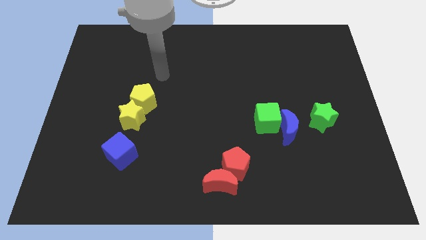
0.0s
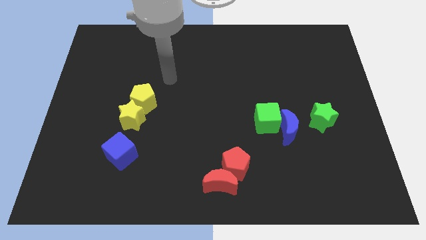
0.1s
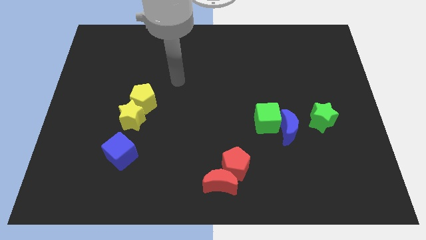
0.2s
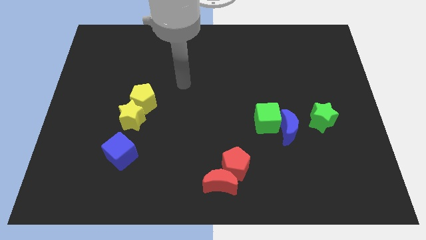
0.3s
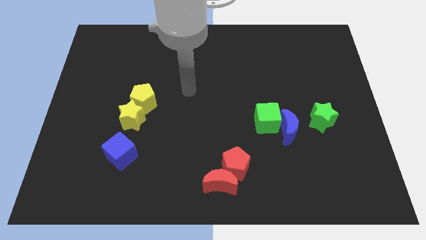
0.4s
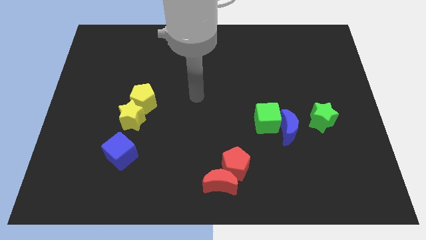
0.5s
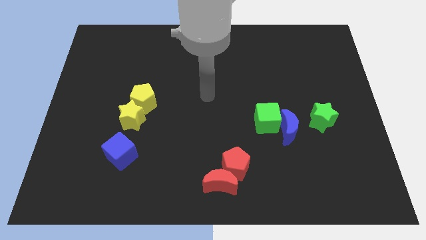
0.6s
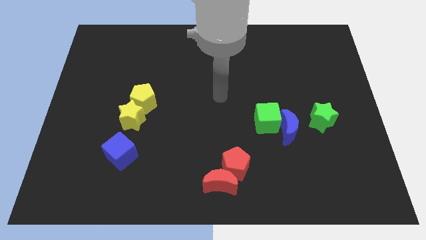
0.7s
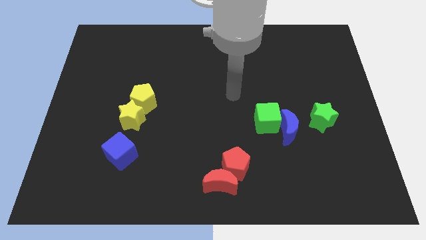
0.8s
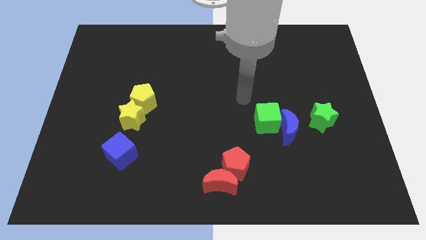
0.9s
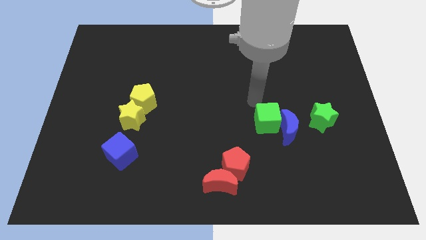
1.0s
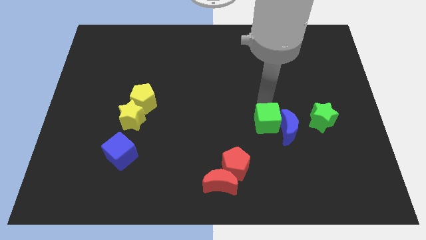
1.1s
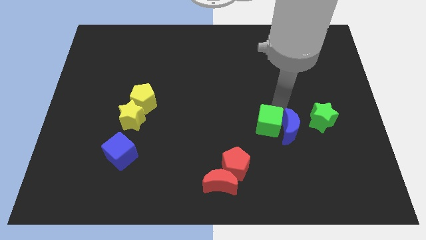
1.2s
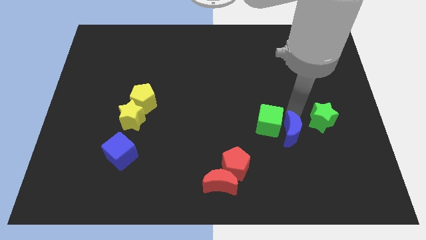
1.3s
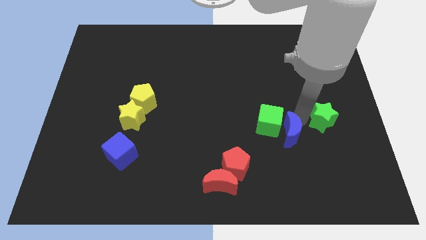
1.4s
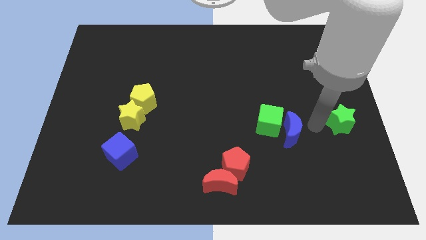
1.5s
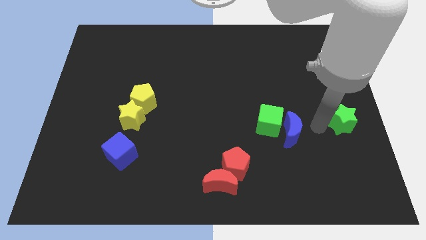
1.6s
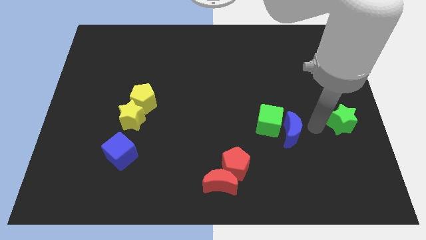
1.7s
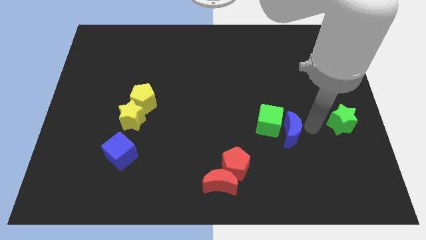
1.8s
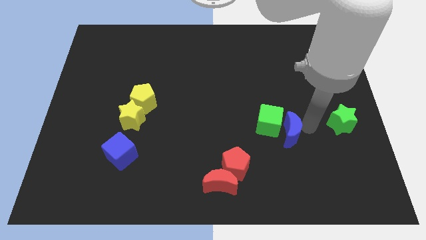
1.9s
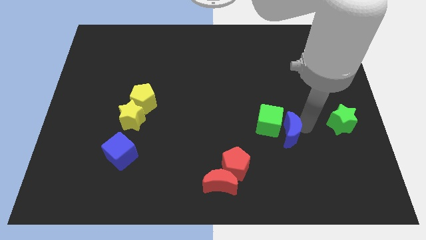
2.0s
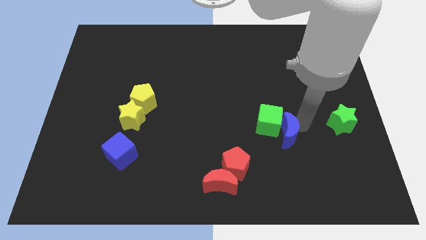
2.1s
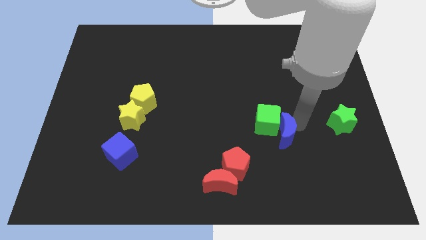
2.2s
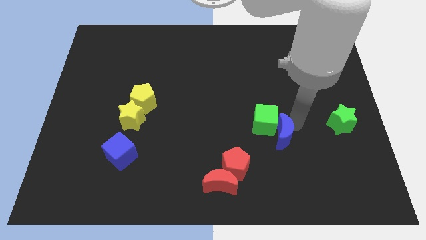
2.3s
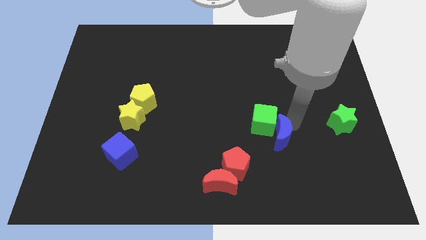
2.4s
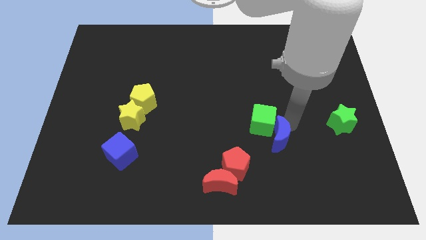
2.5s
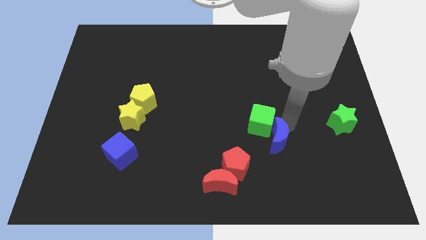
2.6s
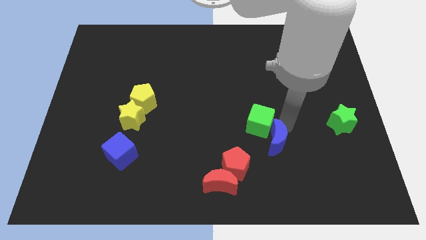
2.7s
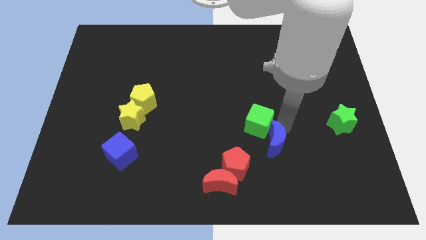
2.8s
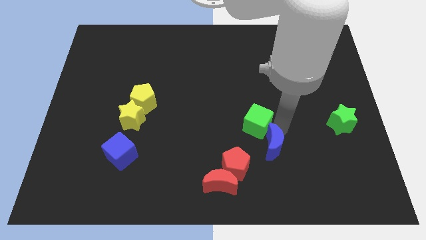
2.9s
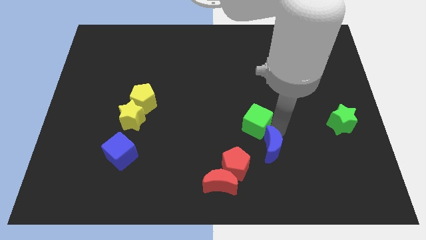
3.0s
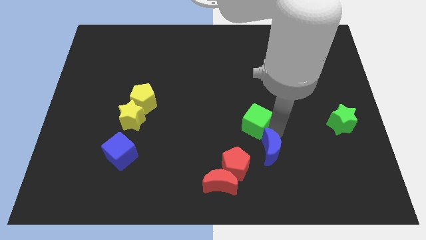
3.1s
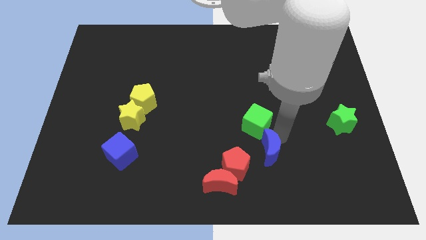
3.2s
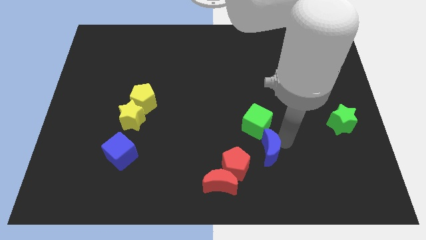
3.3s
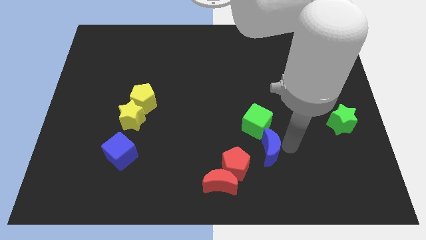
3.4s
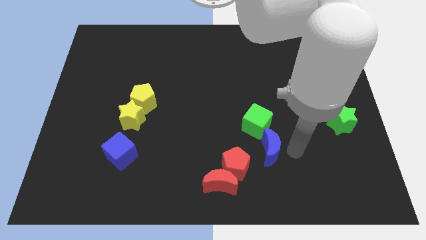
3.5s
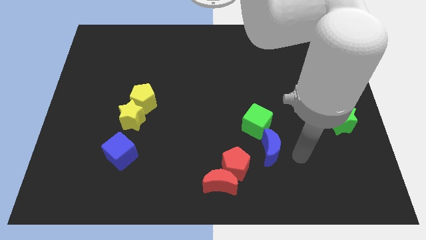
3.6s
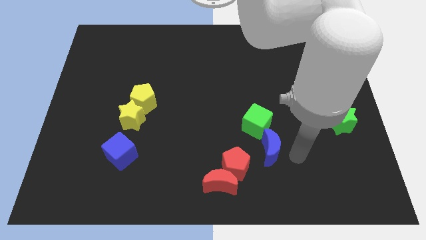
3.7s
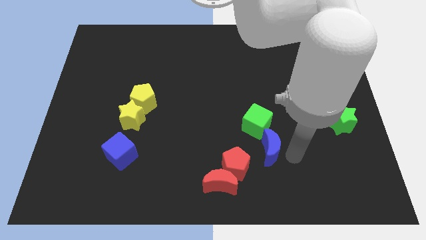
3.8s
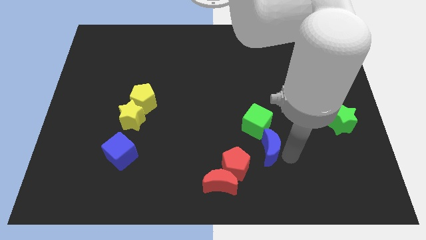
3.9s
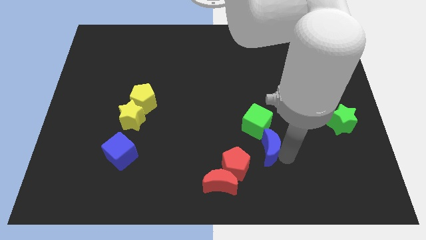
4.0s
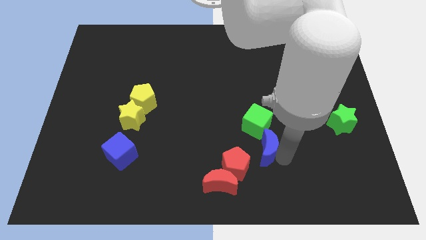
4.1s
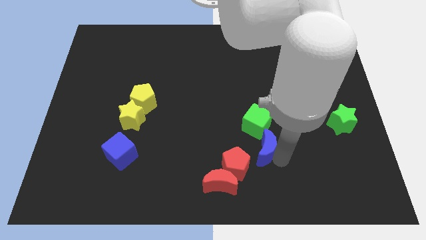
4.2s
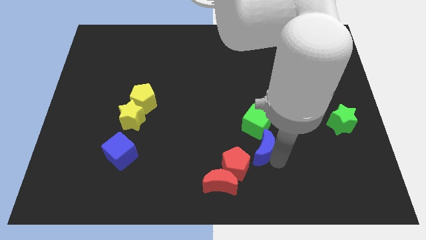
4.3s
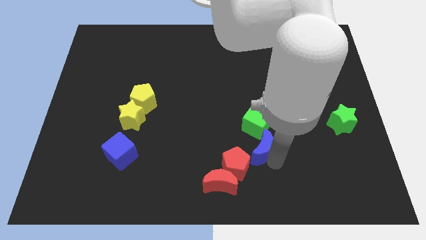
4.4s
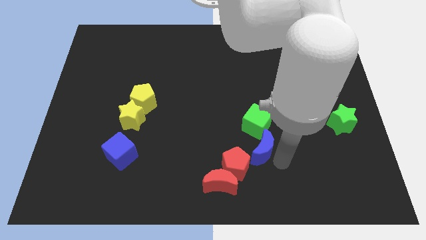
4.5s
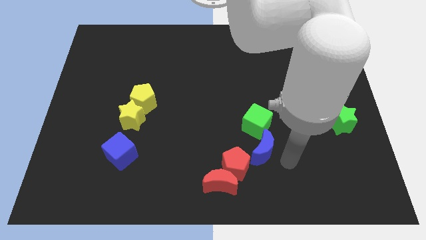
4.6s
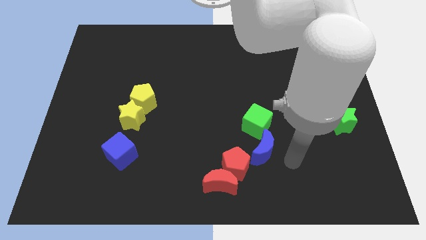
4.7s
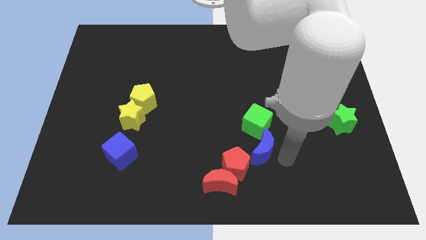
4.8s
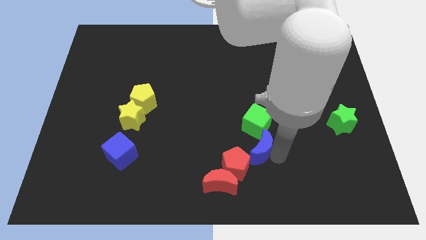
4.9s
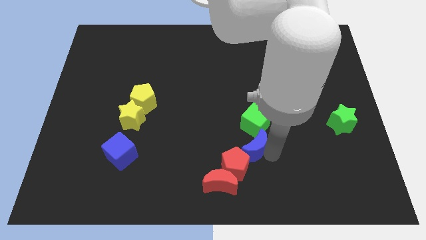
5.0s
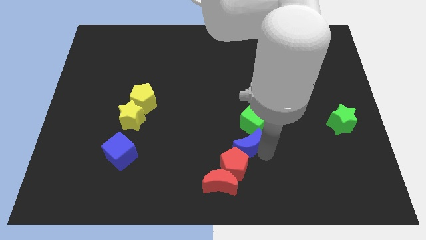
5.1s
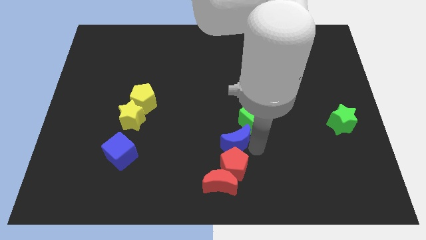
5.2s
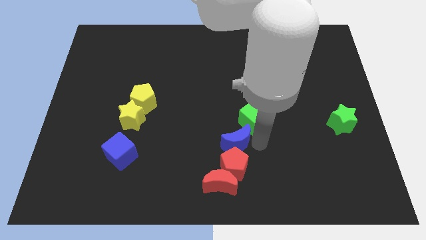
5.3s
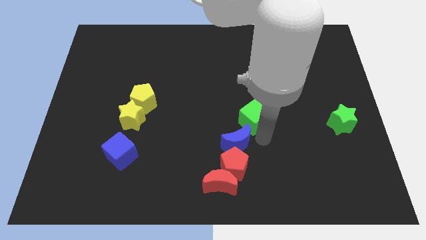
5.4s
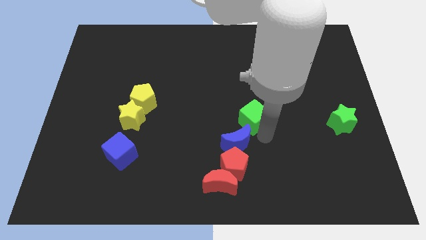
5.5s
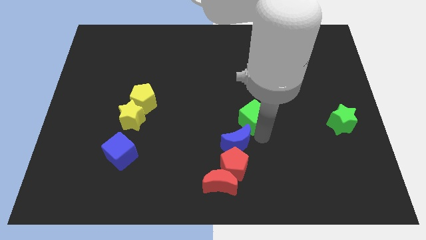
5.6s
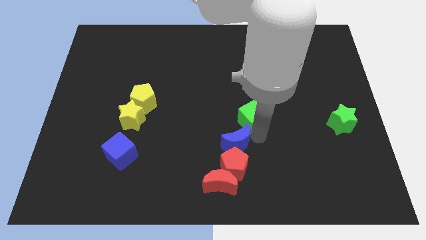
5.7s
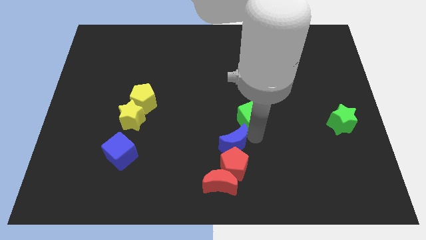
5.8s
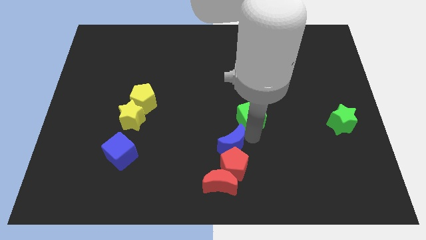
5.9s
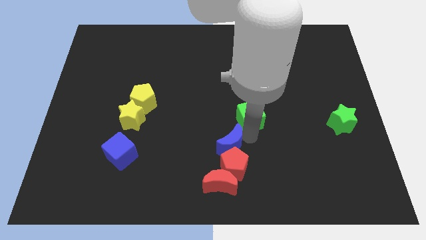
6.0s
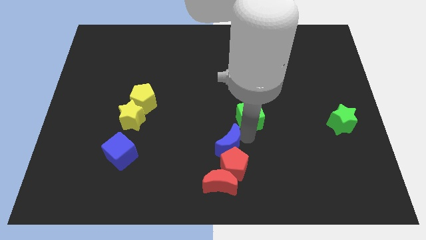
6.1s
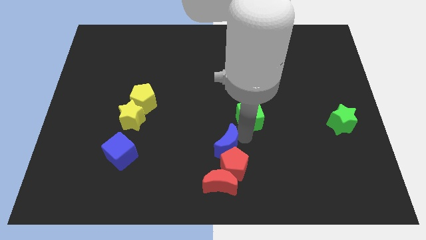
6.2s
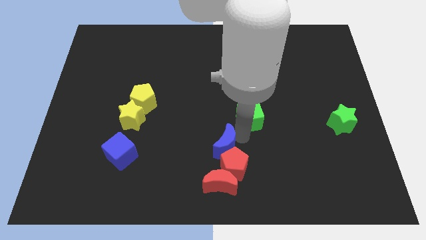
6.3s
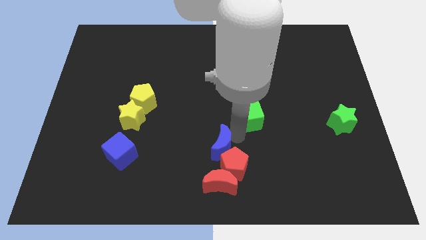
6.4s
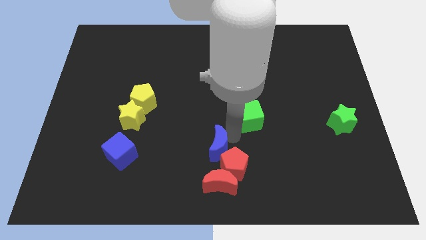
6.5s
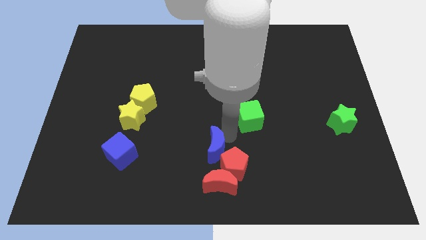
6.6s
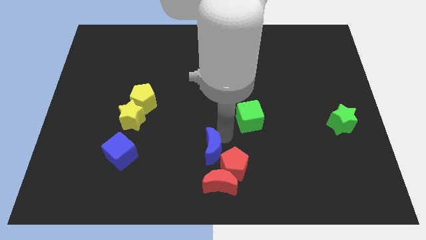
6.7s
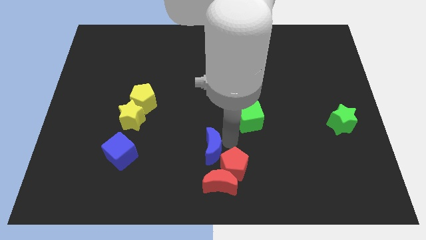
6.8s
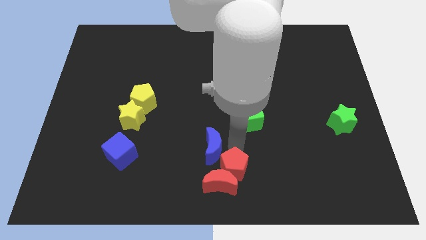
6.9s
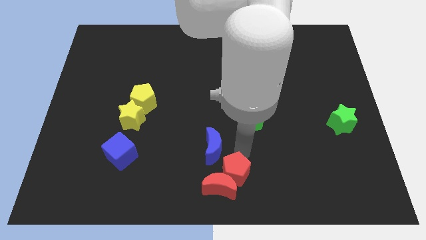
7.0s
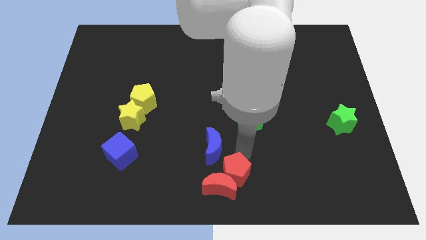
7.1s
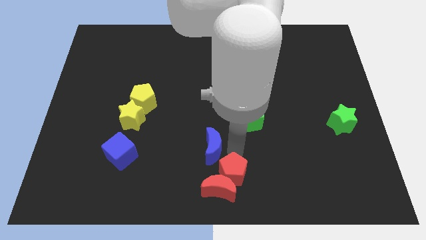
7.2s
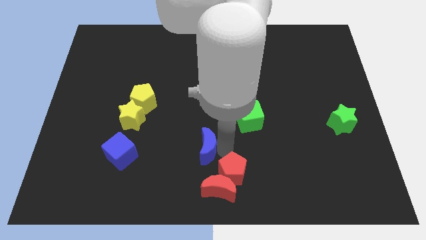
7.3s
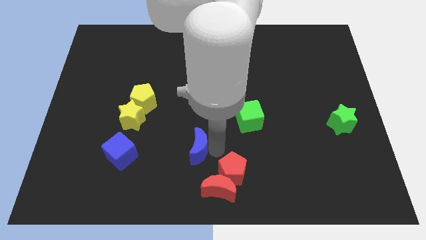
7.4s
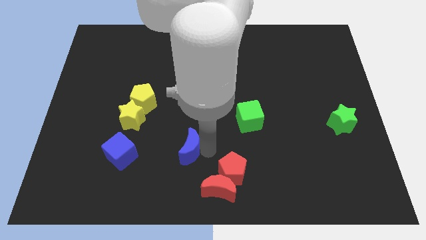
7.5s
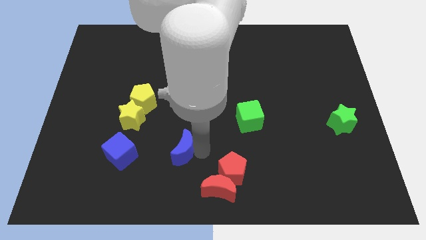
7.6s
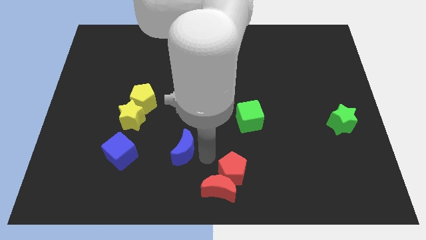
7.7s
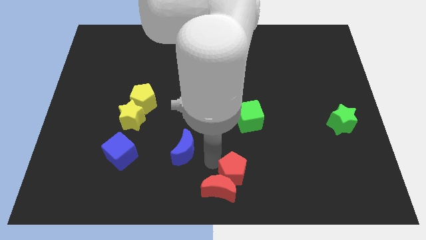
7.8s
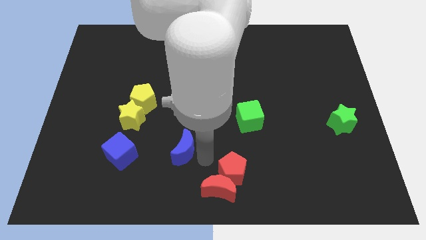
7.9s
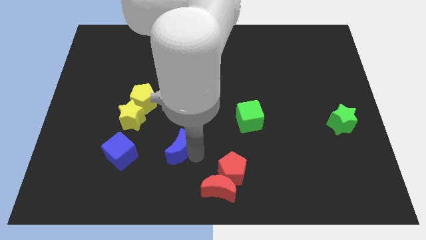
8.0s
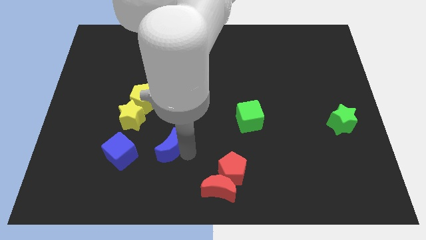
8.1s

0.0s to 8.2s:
slide the blue moon diagonally down and to the right of the yellow star
